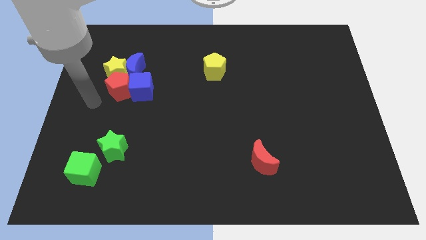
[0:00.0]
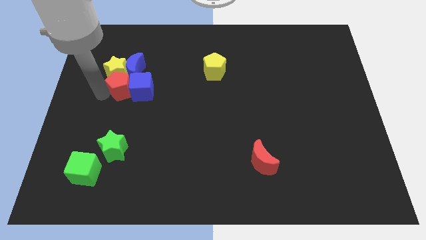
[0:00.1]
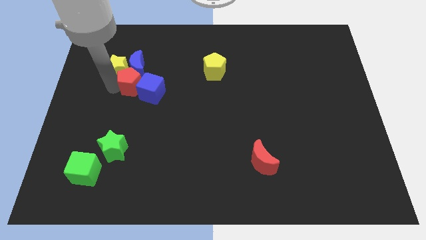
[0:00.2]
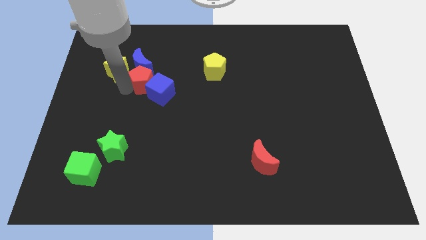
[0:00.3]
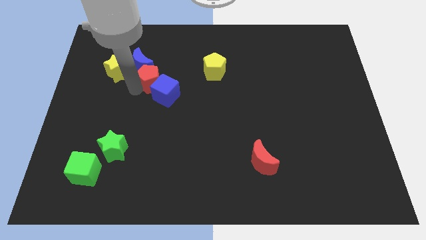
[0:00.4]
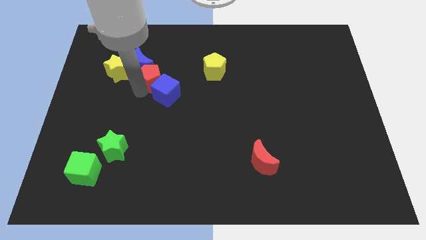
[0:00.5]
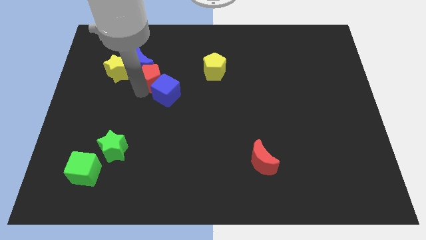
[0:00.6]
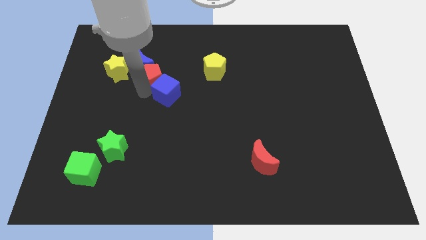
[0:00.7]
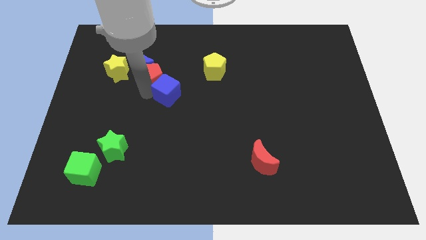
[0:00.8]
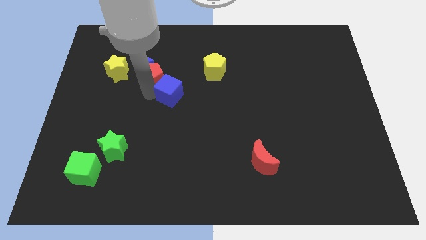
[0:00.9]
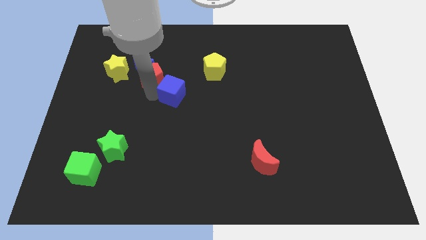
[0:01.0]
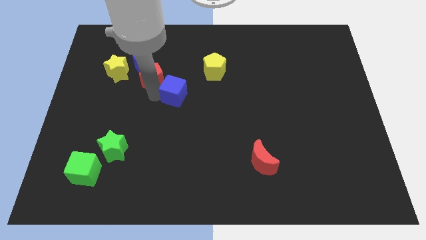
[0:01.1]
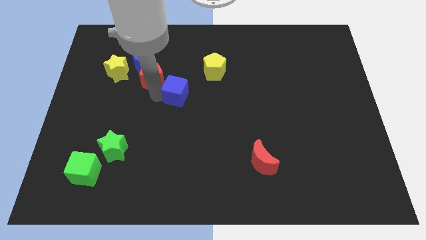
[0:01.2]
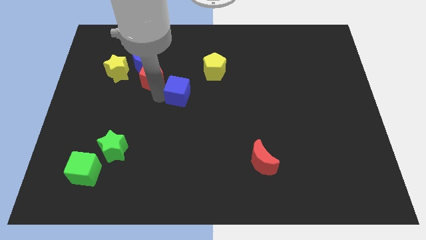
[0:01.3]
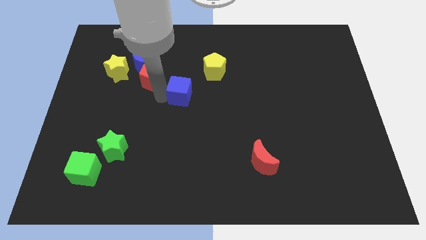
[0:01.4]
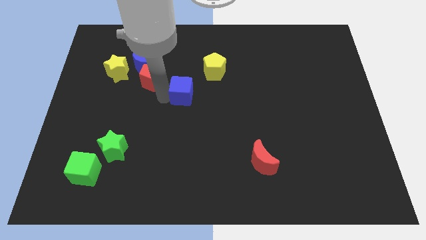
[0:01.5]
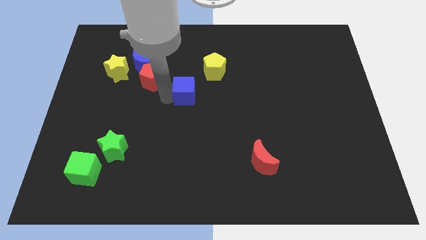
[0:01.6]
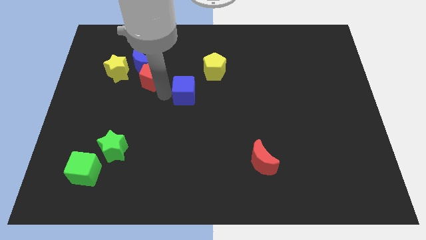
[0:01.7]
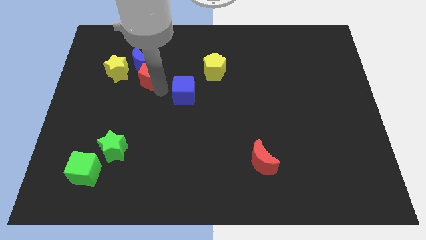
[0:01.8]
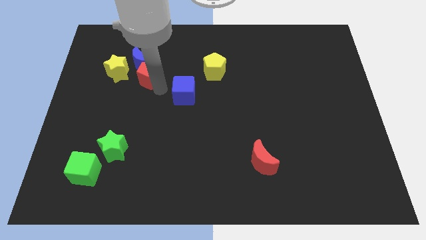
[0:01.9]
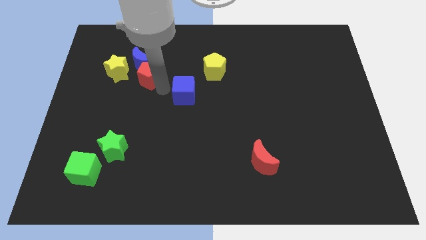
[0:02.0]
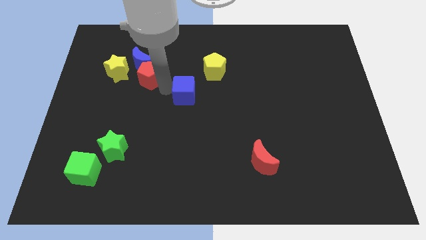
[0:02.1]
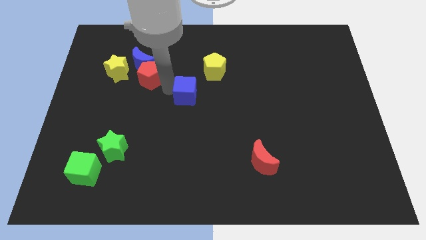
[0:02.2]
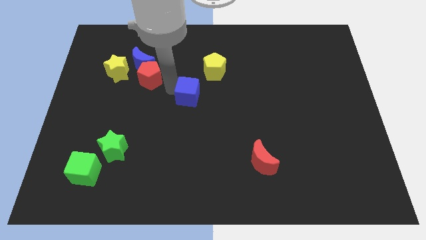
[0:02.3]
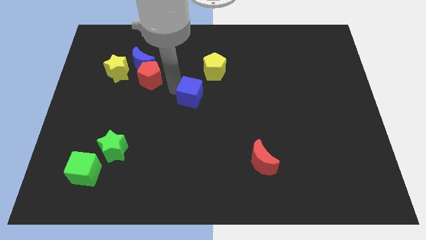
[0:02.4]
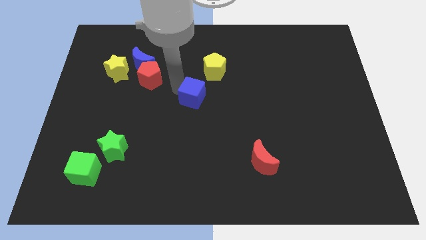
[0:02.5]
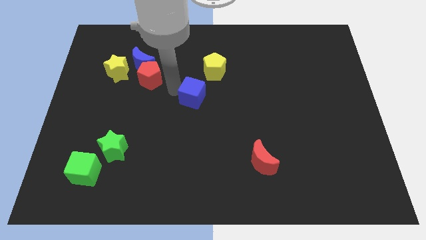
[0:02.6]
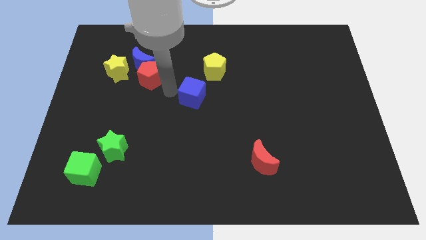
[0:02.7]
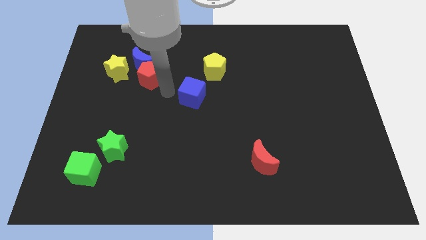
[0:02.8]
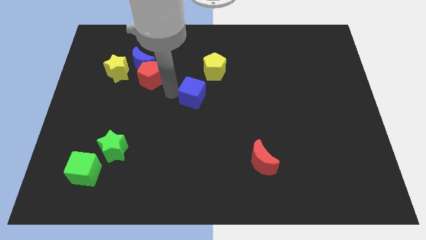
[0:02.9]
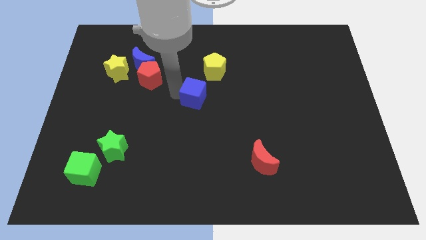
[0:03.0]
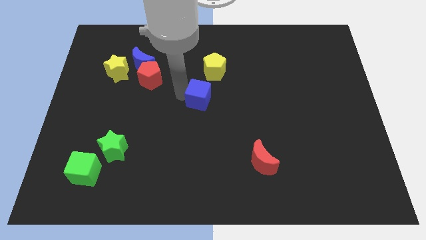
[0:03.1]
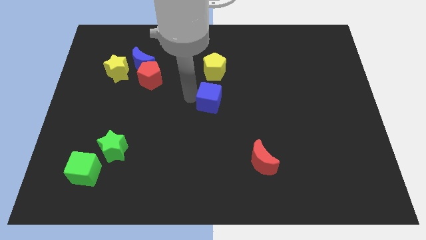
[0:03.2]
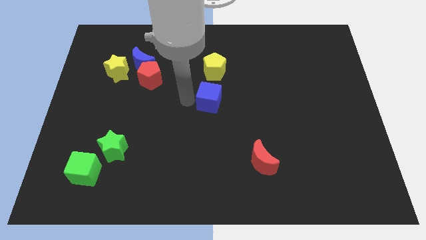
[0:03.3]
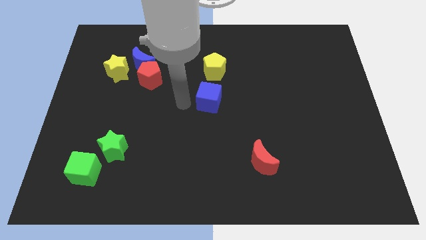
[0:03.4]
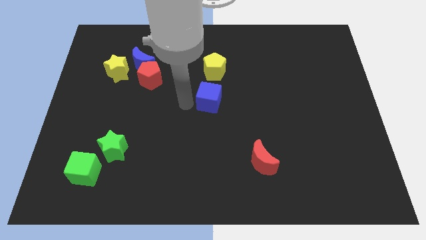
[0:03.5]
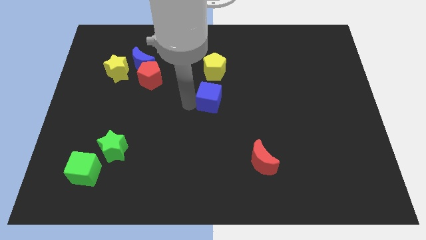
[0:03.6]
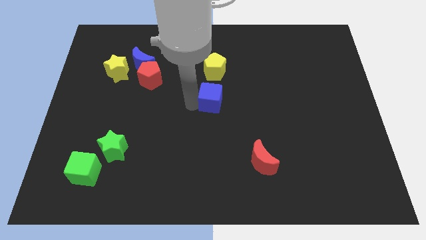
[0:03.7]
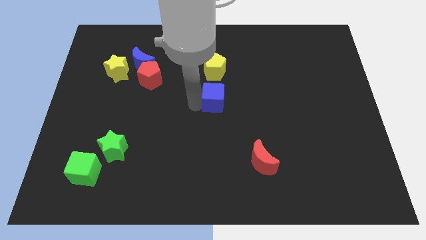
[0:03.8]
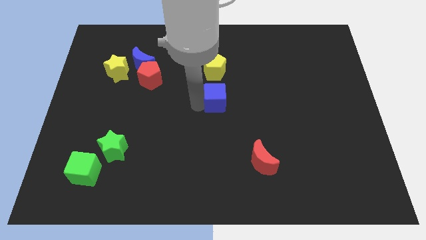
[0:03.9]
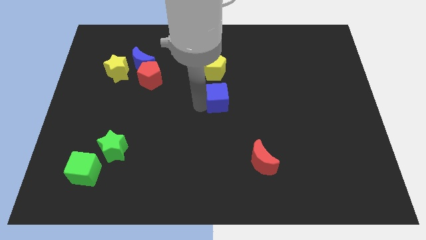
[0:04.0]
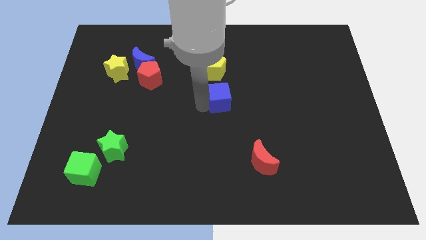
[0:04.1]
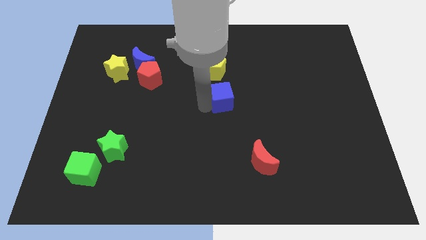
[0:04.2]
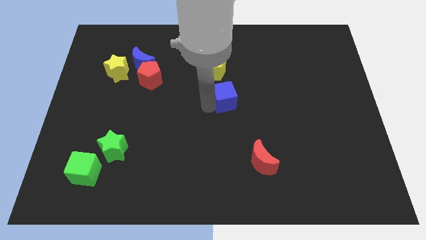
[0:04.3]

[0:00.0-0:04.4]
move the blue cube to the right

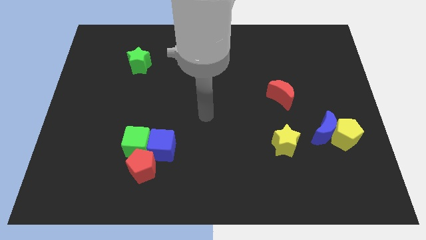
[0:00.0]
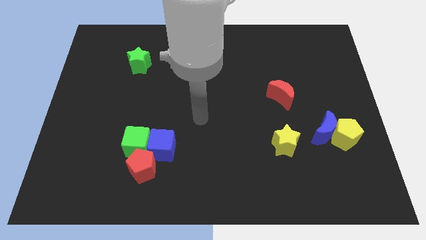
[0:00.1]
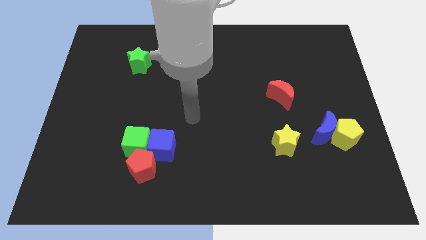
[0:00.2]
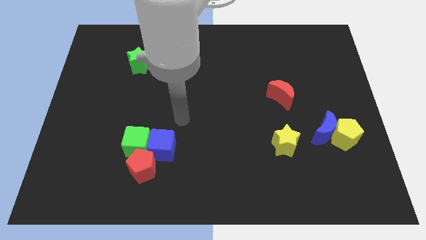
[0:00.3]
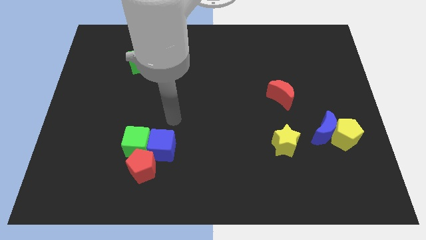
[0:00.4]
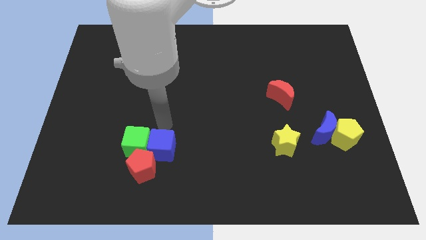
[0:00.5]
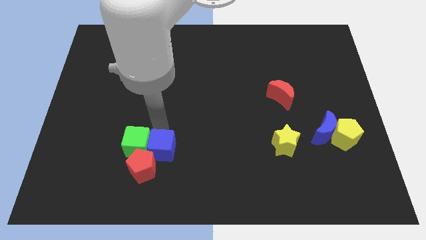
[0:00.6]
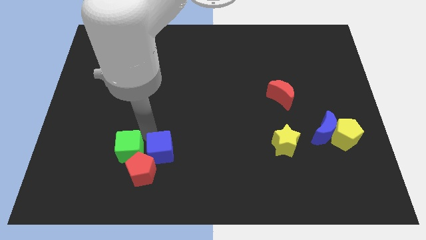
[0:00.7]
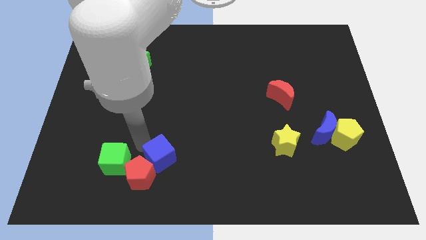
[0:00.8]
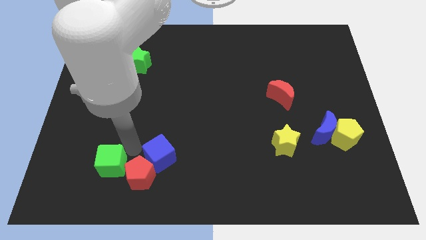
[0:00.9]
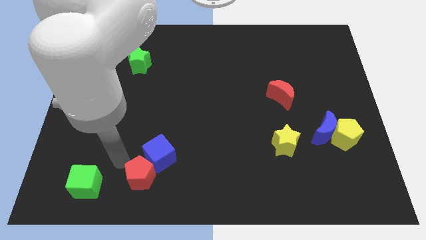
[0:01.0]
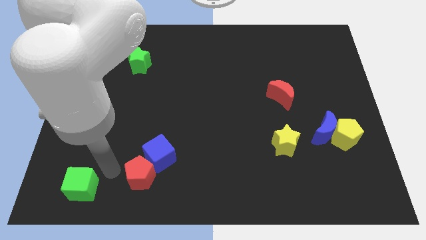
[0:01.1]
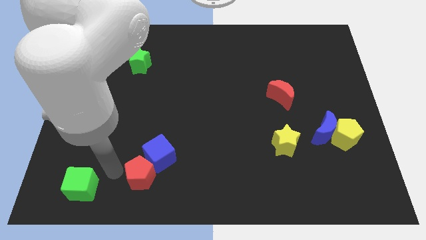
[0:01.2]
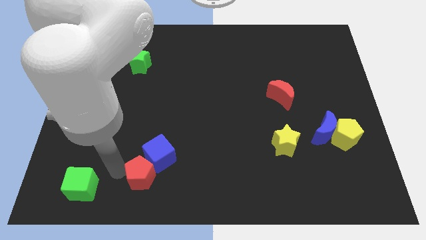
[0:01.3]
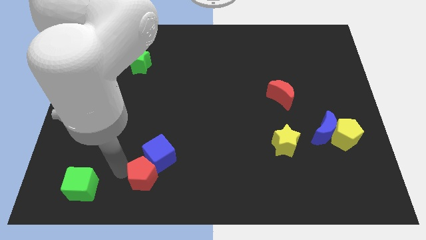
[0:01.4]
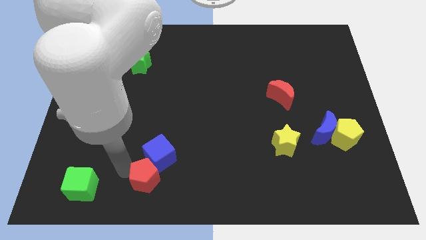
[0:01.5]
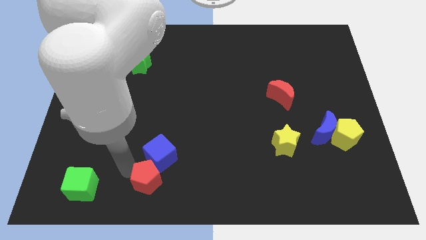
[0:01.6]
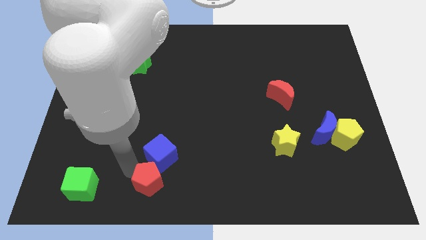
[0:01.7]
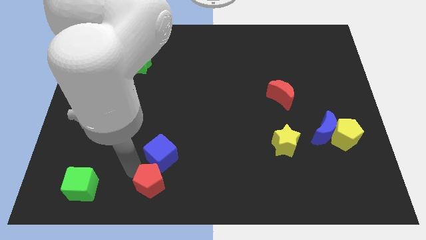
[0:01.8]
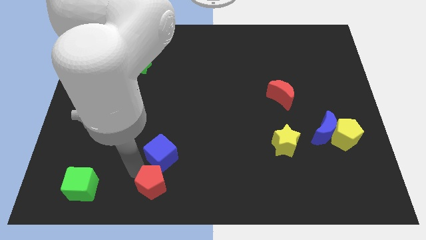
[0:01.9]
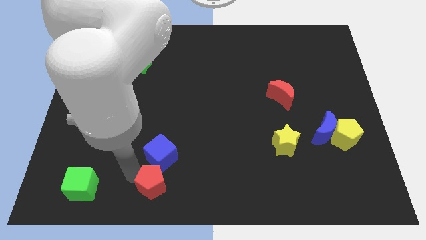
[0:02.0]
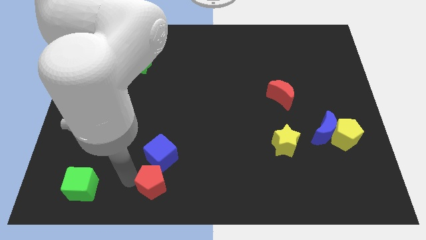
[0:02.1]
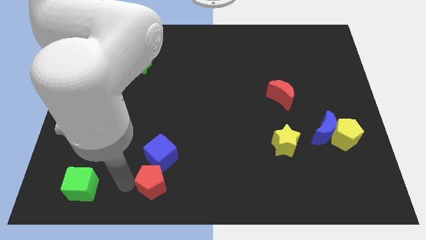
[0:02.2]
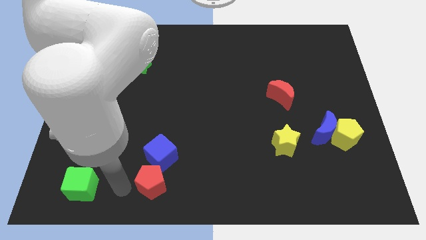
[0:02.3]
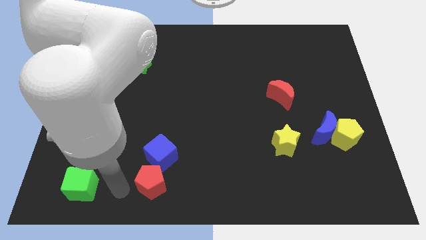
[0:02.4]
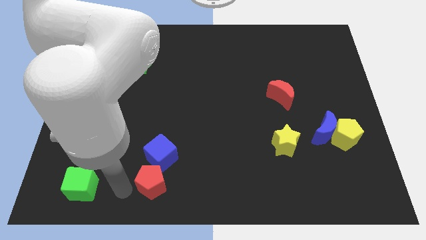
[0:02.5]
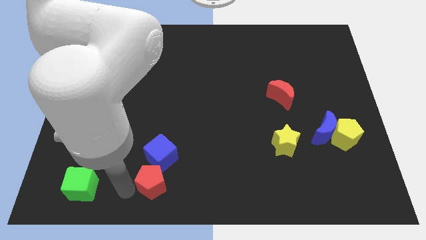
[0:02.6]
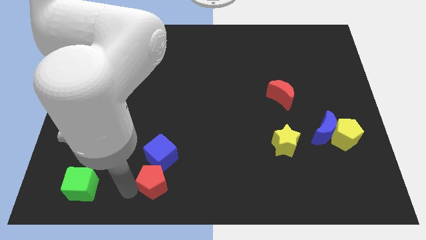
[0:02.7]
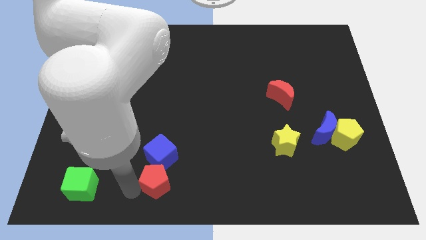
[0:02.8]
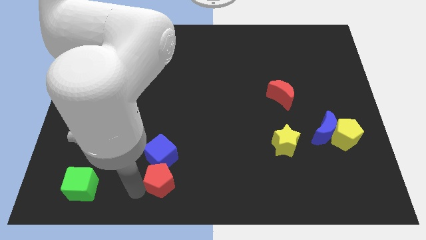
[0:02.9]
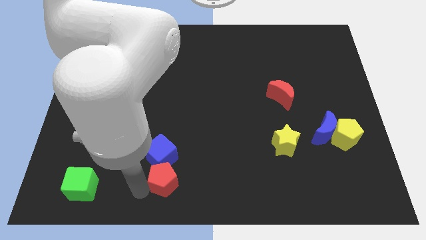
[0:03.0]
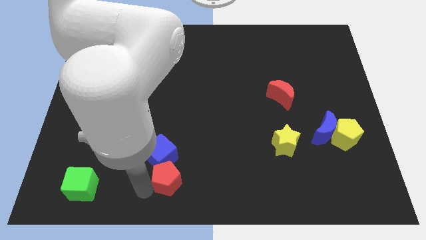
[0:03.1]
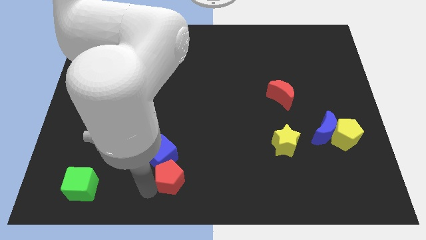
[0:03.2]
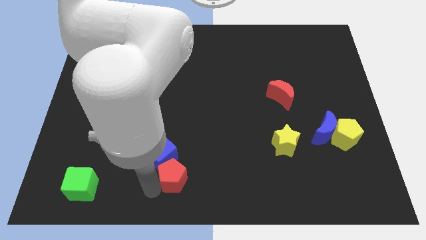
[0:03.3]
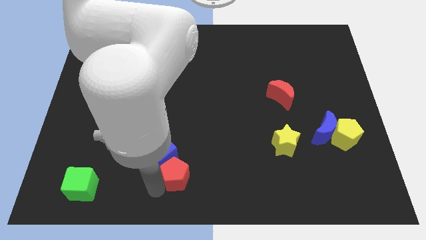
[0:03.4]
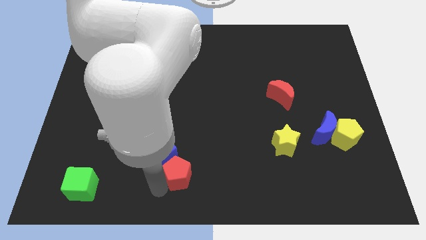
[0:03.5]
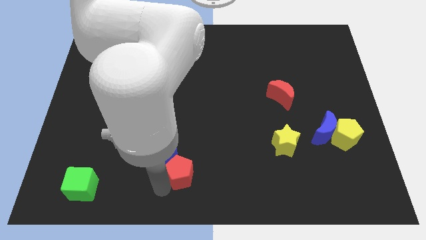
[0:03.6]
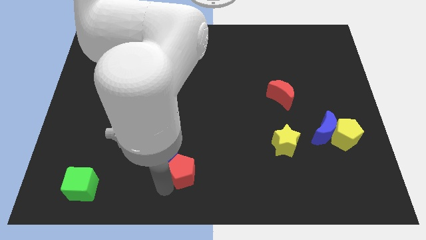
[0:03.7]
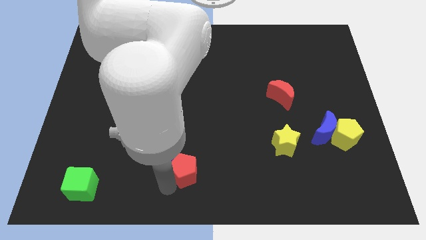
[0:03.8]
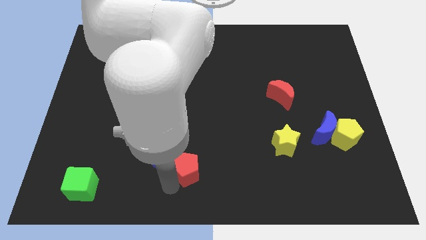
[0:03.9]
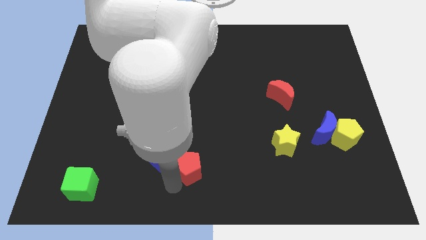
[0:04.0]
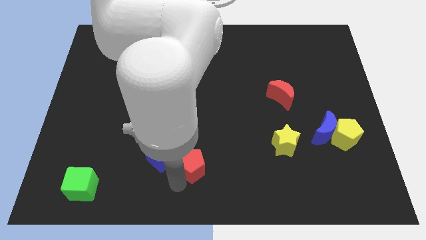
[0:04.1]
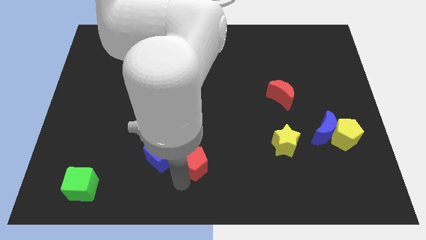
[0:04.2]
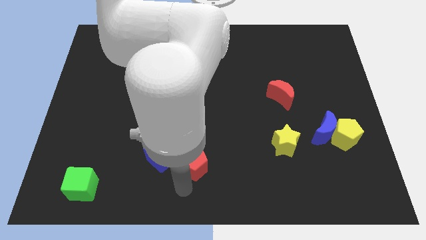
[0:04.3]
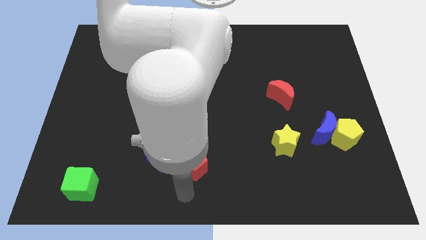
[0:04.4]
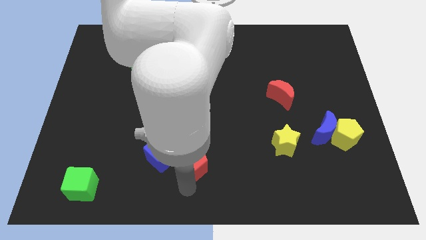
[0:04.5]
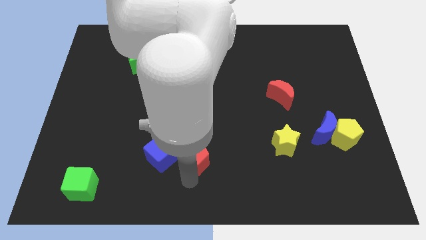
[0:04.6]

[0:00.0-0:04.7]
push the red pentagon diagonally upwards and right slightly
